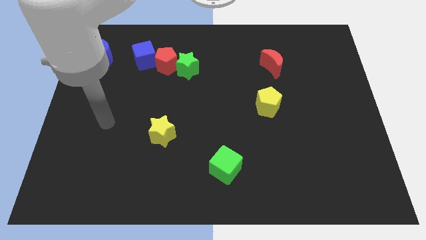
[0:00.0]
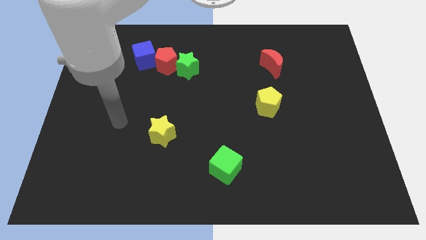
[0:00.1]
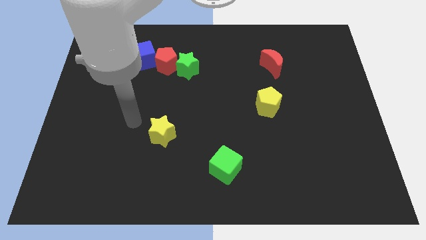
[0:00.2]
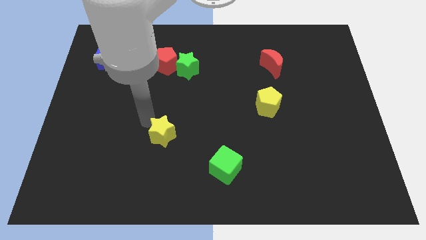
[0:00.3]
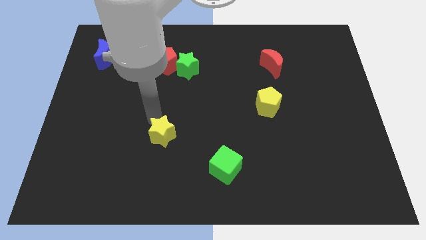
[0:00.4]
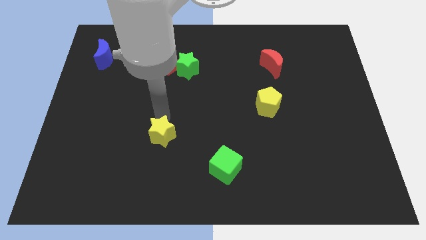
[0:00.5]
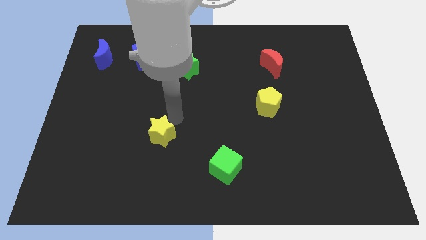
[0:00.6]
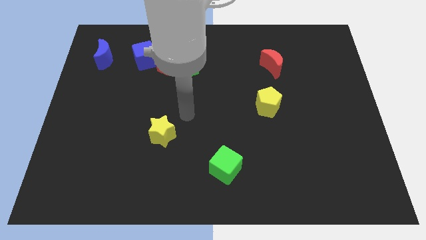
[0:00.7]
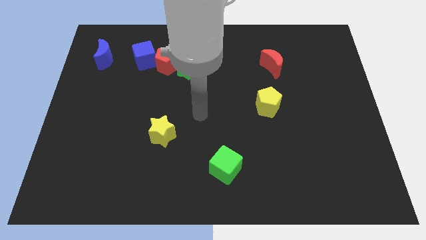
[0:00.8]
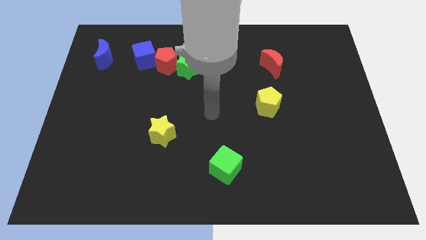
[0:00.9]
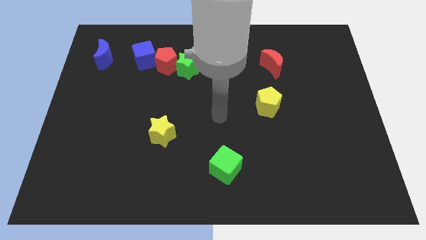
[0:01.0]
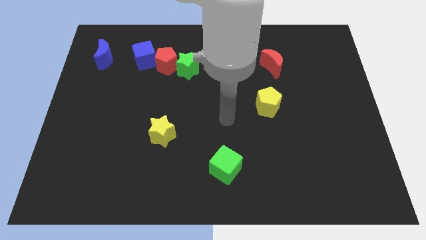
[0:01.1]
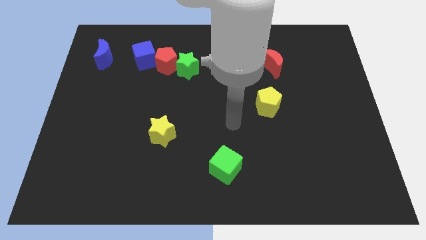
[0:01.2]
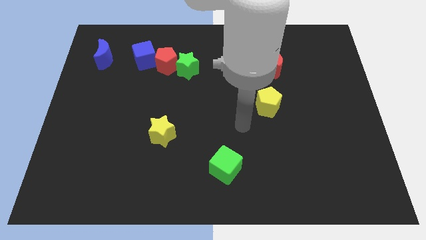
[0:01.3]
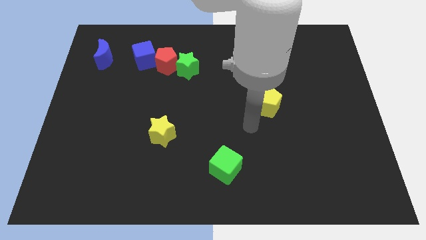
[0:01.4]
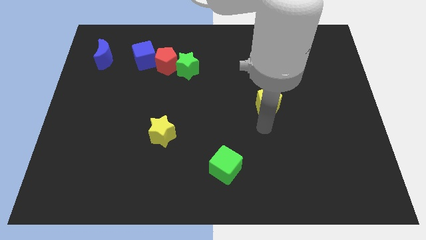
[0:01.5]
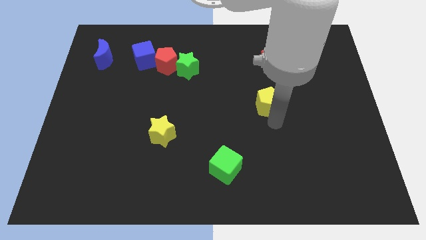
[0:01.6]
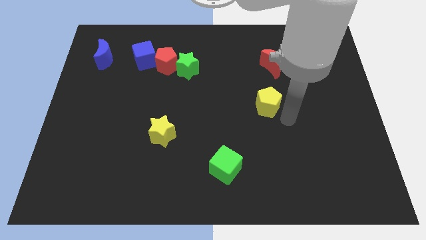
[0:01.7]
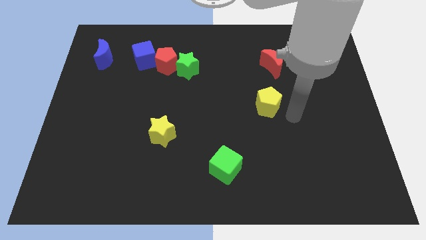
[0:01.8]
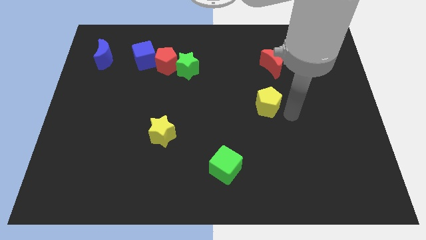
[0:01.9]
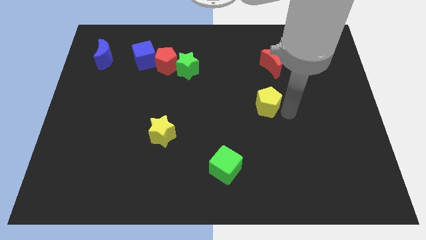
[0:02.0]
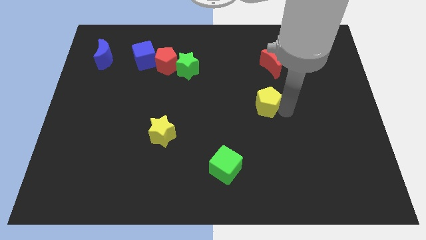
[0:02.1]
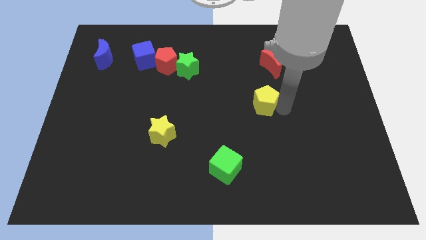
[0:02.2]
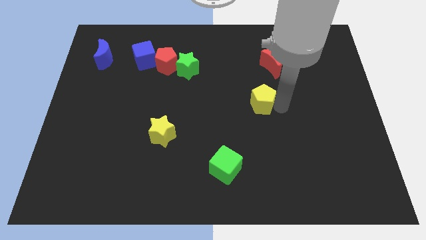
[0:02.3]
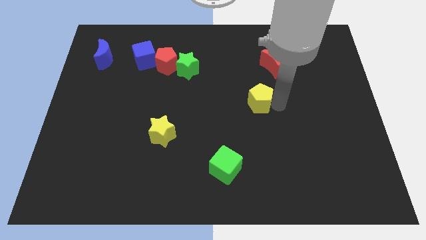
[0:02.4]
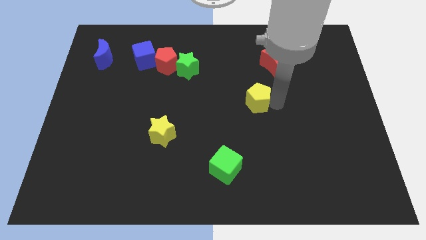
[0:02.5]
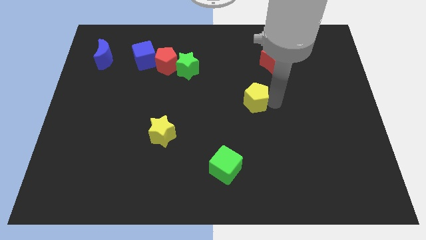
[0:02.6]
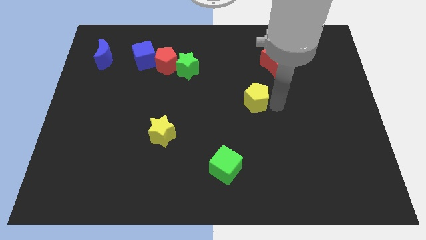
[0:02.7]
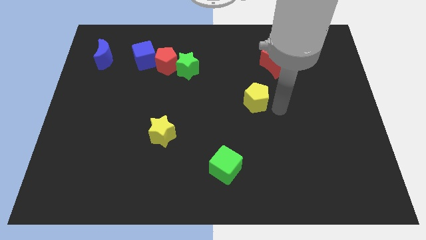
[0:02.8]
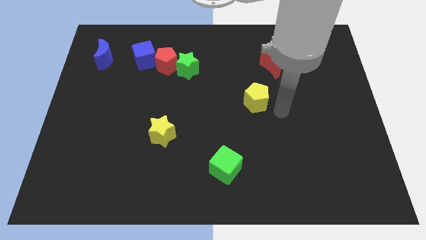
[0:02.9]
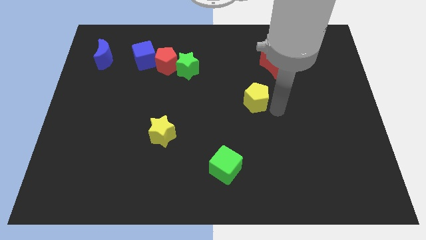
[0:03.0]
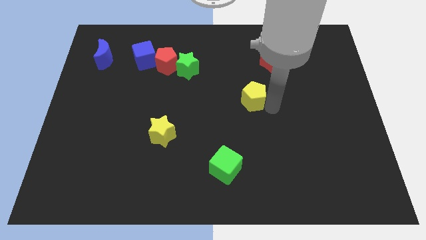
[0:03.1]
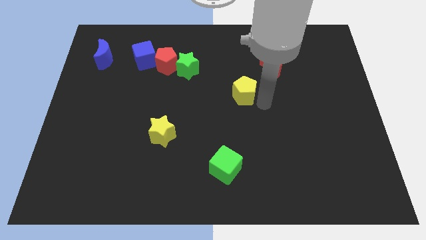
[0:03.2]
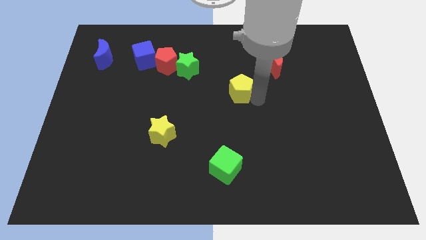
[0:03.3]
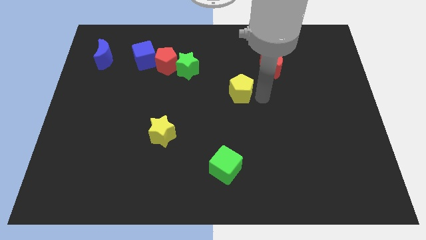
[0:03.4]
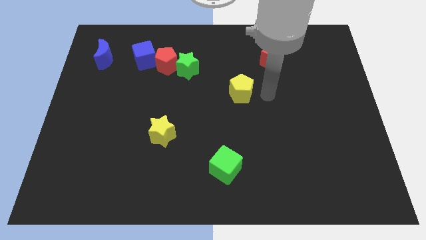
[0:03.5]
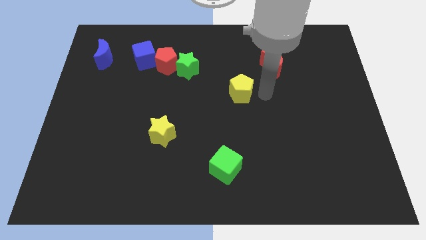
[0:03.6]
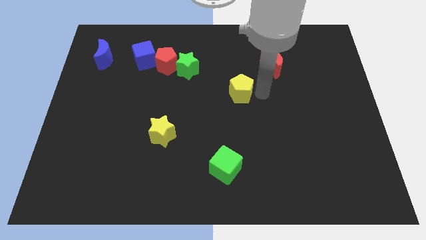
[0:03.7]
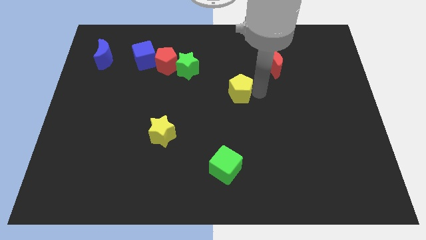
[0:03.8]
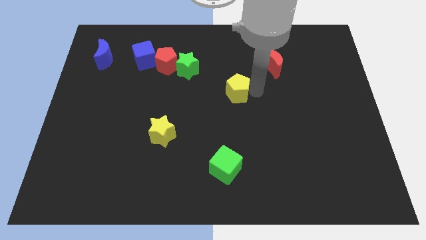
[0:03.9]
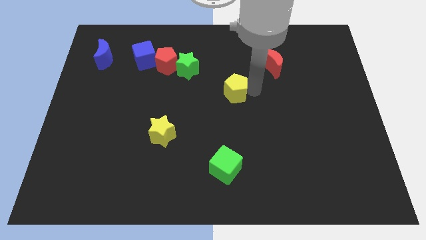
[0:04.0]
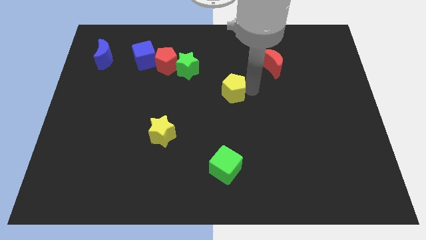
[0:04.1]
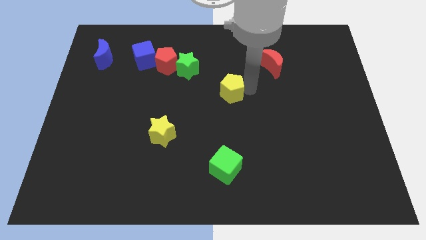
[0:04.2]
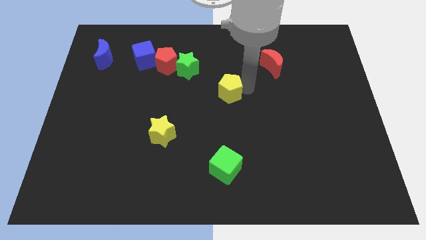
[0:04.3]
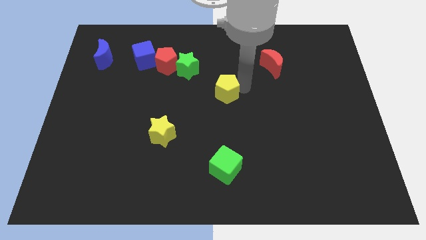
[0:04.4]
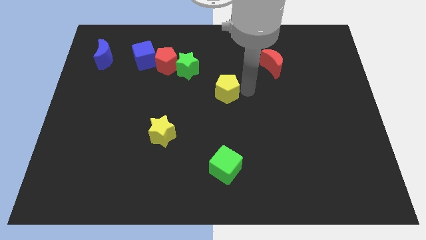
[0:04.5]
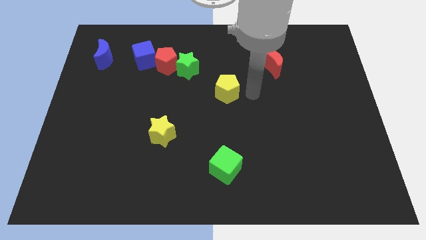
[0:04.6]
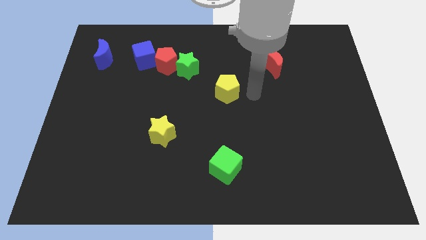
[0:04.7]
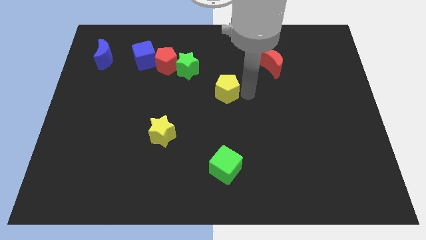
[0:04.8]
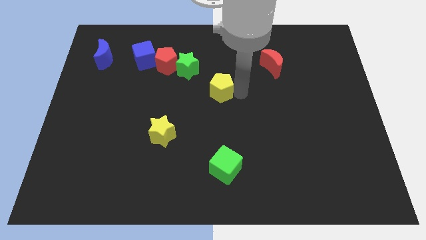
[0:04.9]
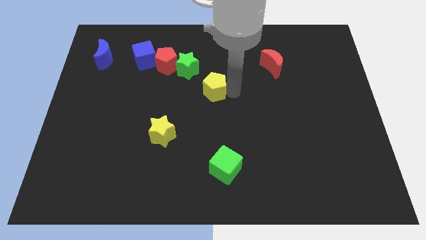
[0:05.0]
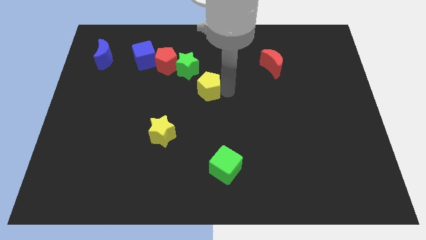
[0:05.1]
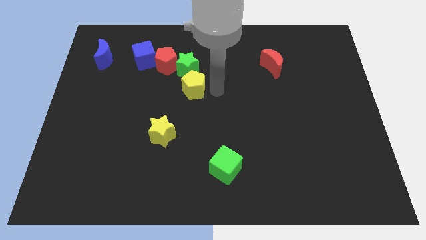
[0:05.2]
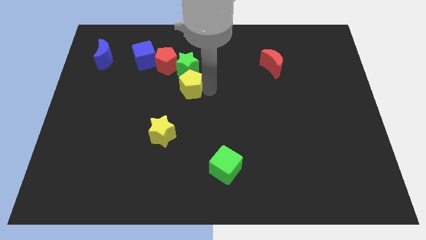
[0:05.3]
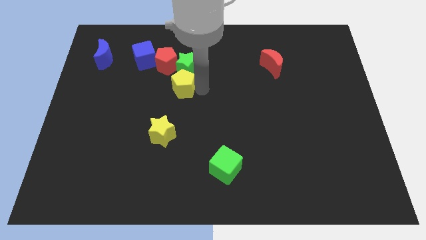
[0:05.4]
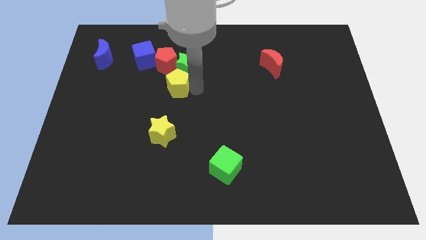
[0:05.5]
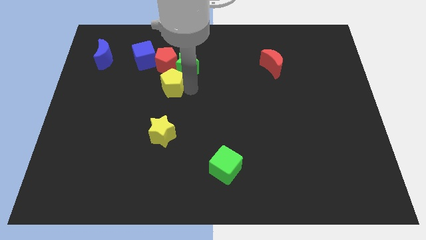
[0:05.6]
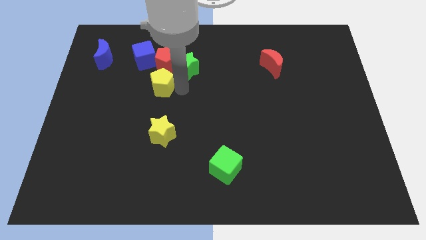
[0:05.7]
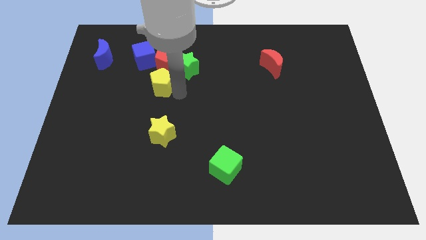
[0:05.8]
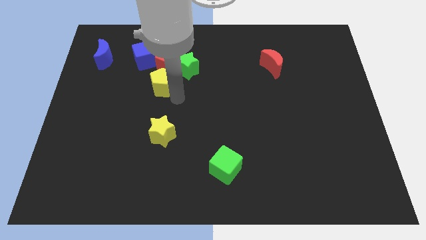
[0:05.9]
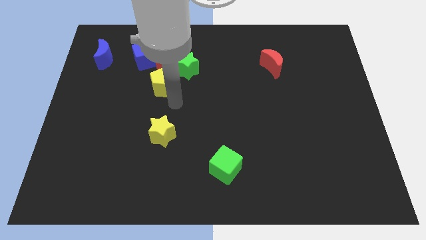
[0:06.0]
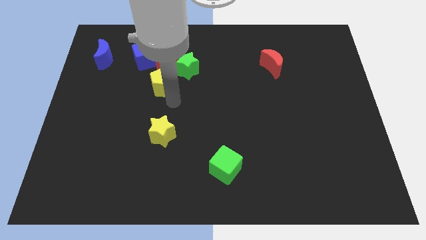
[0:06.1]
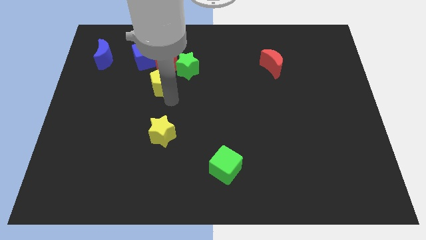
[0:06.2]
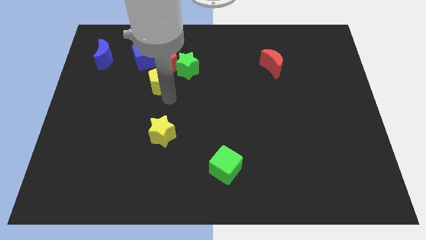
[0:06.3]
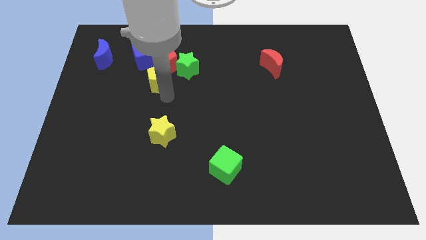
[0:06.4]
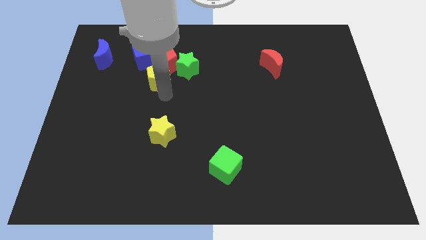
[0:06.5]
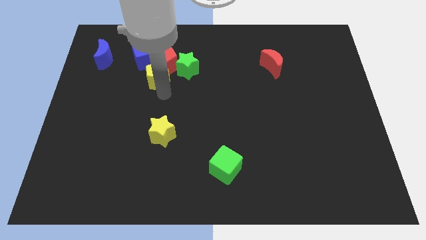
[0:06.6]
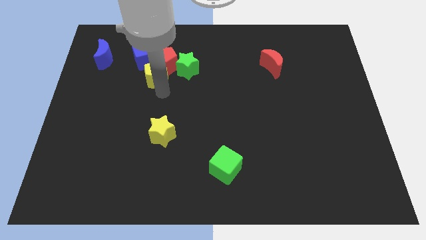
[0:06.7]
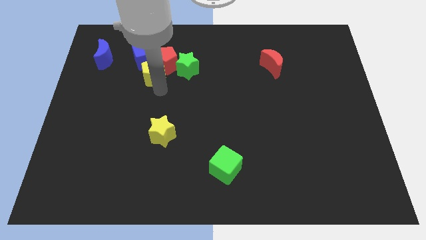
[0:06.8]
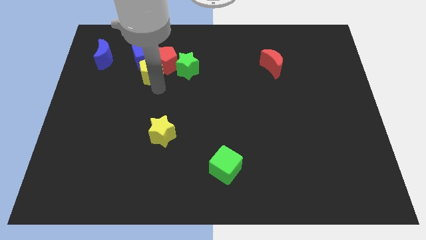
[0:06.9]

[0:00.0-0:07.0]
push the yellow pentagon next to the blue cube

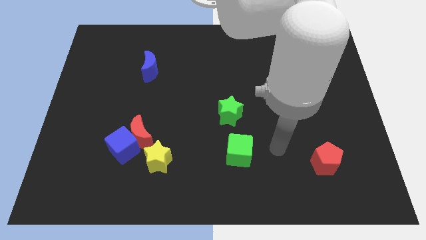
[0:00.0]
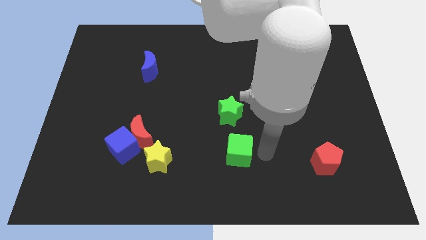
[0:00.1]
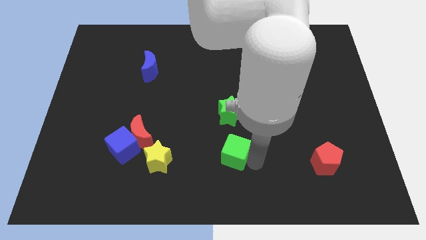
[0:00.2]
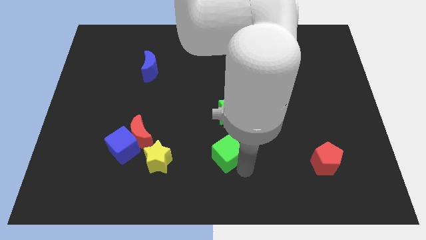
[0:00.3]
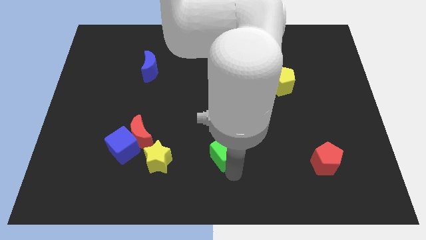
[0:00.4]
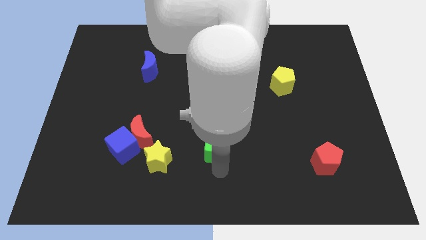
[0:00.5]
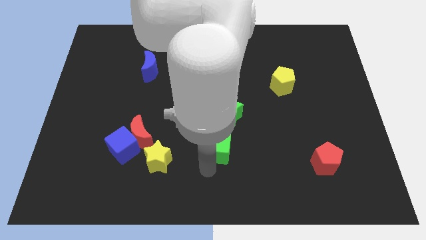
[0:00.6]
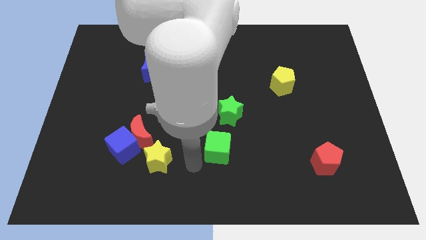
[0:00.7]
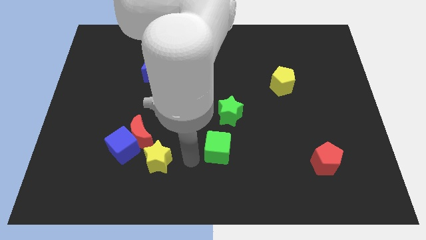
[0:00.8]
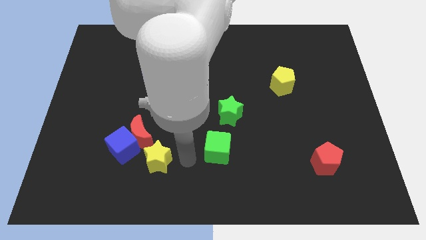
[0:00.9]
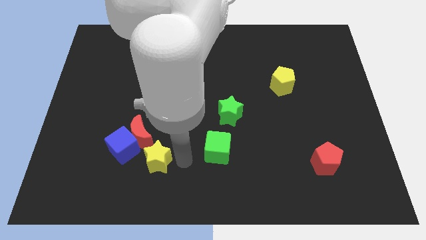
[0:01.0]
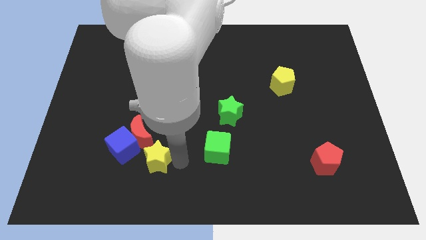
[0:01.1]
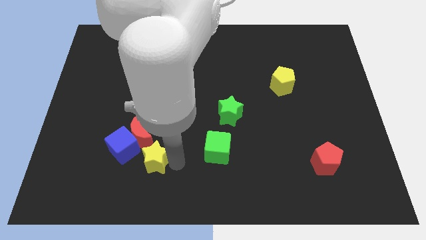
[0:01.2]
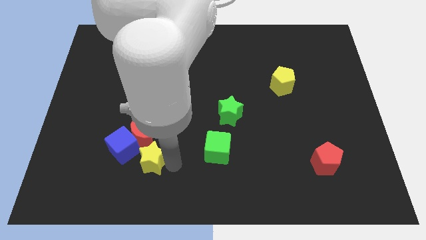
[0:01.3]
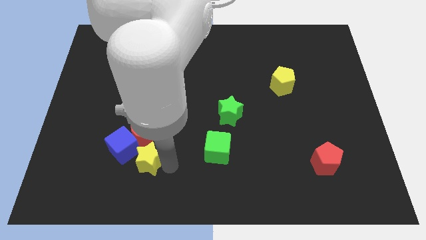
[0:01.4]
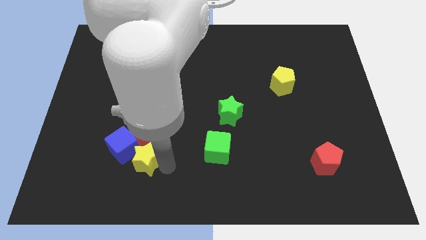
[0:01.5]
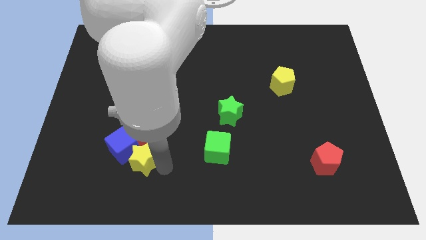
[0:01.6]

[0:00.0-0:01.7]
move the yellow star to the blue cube
